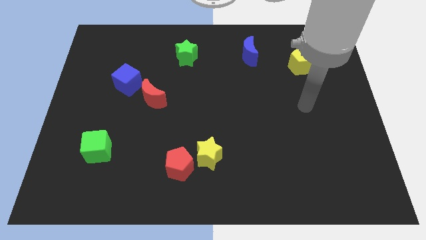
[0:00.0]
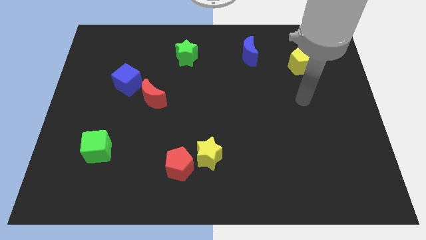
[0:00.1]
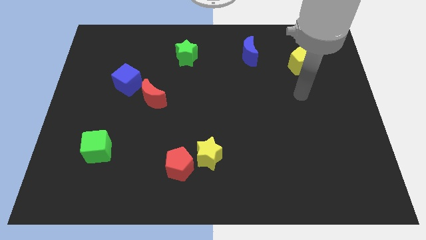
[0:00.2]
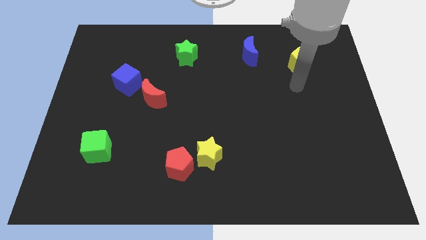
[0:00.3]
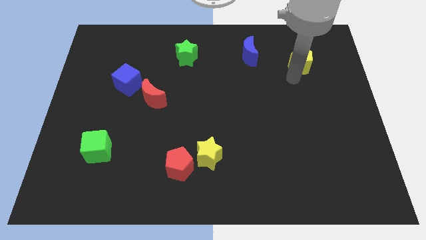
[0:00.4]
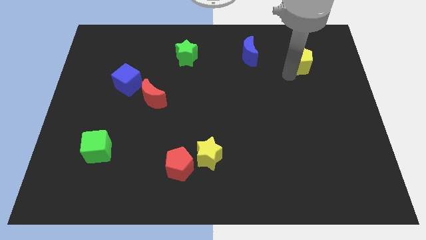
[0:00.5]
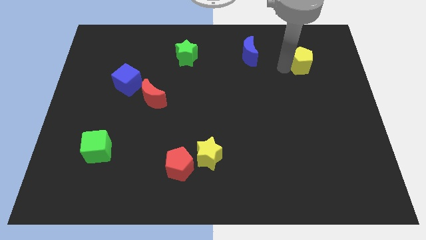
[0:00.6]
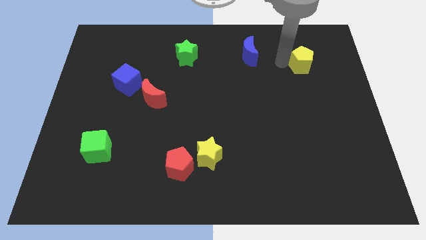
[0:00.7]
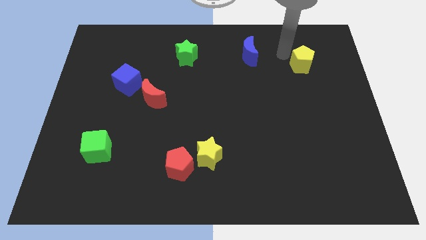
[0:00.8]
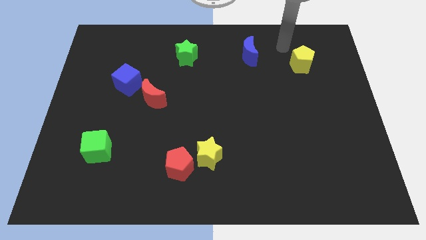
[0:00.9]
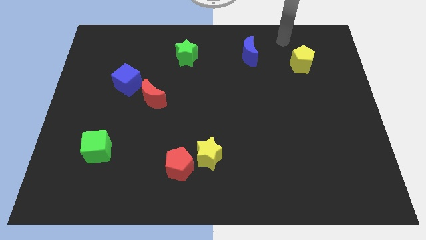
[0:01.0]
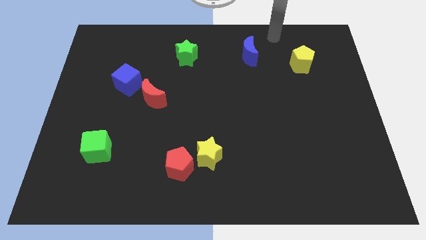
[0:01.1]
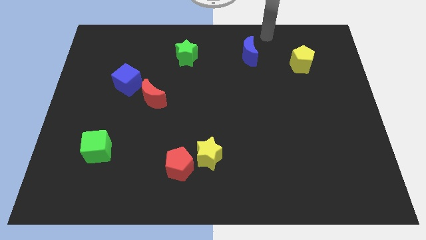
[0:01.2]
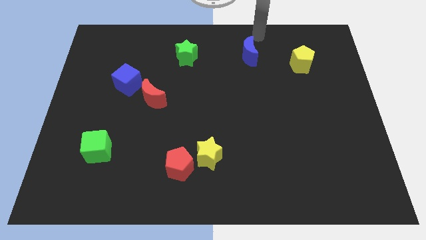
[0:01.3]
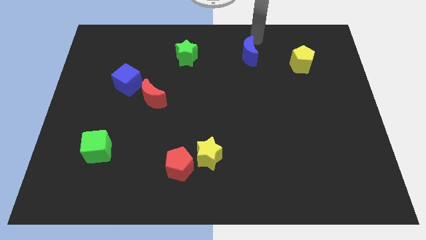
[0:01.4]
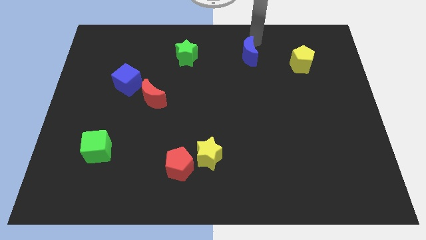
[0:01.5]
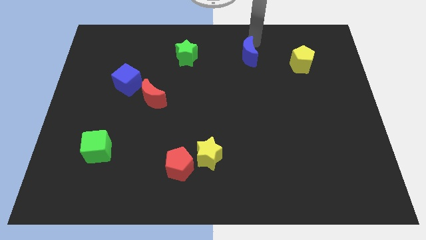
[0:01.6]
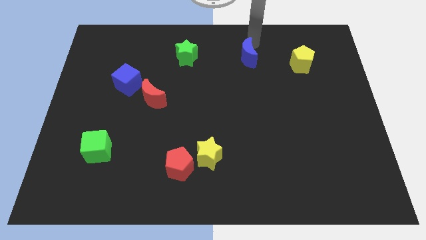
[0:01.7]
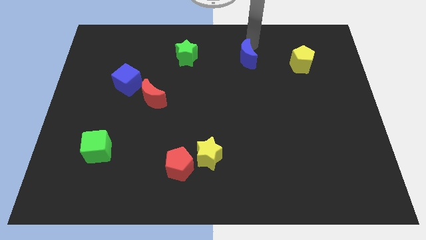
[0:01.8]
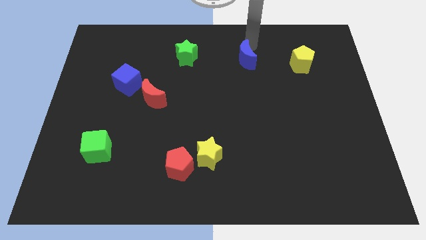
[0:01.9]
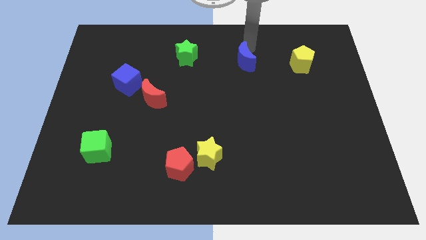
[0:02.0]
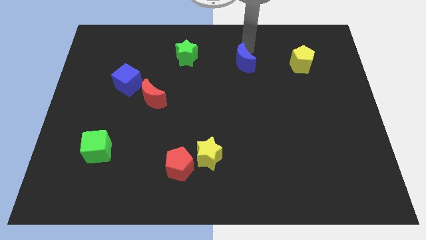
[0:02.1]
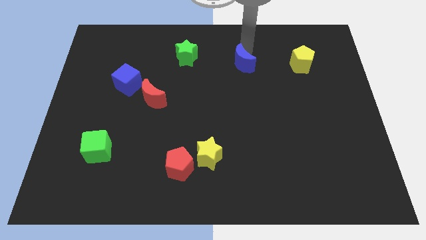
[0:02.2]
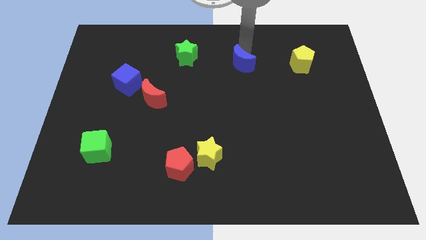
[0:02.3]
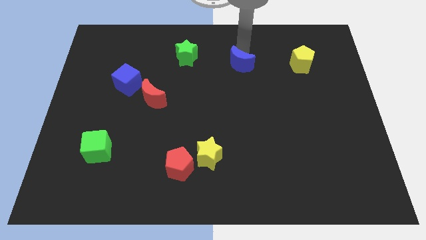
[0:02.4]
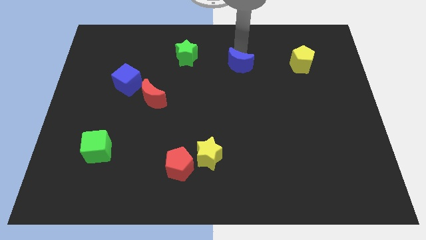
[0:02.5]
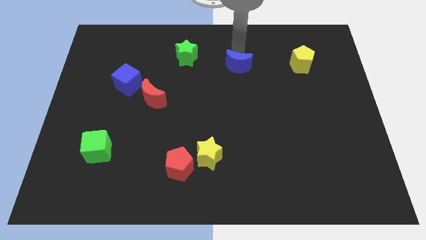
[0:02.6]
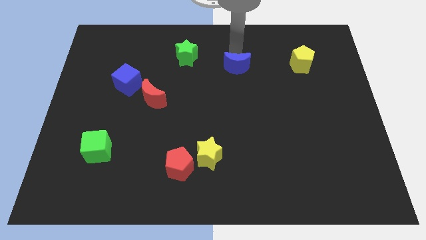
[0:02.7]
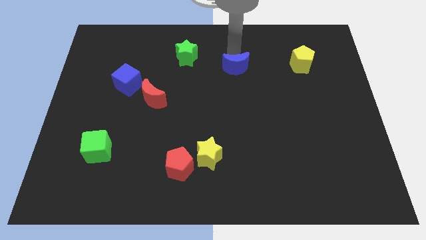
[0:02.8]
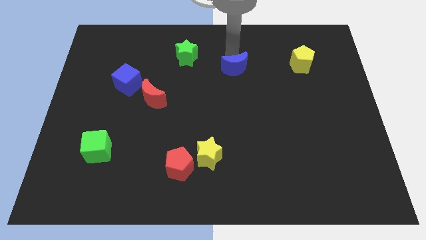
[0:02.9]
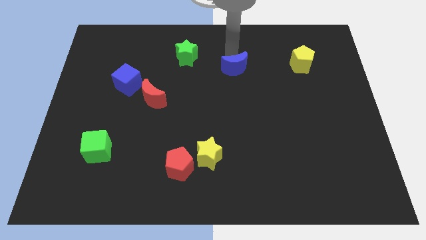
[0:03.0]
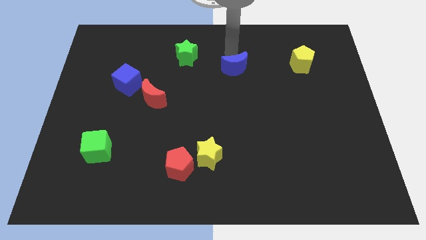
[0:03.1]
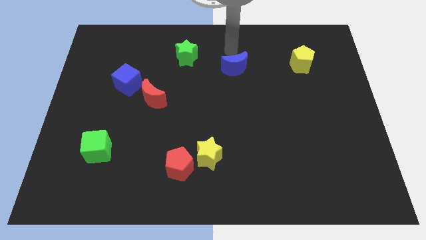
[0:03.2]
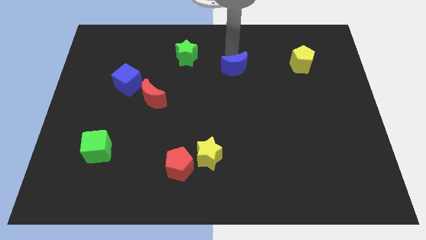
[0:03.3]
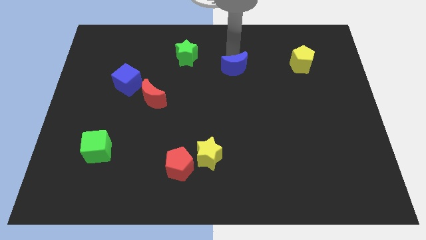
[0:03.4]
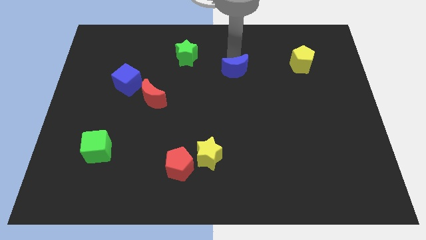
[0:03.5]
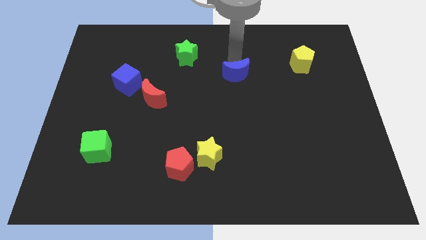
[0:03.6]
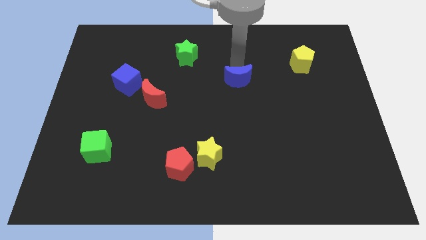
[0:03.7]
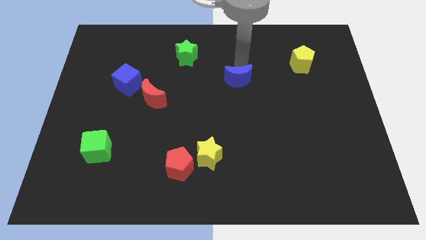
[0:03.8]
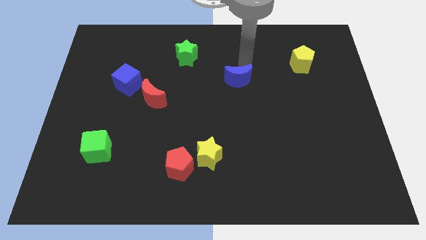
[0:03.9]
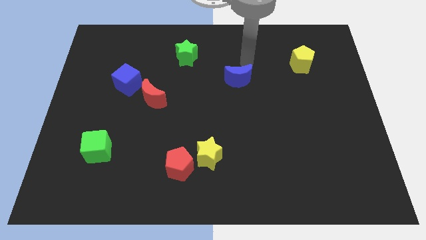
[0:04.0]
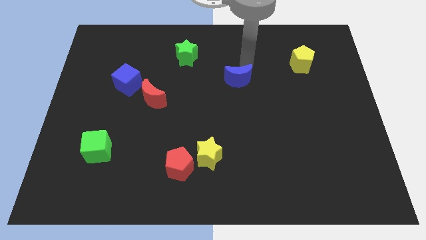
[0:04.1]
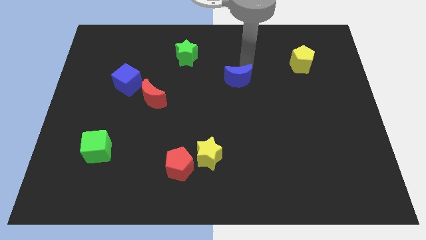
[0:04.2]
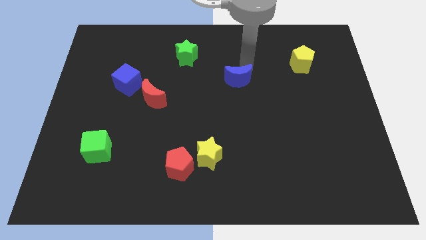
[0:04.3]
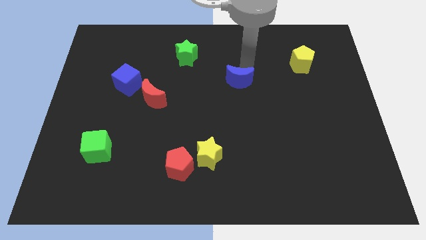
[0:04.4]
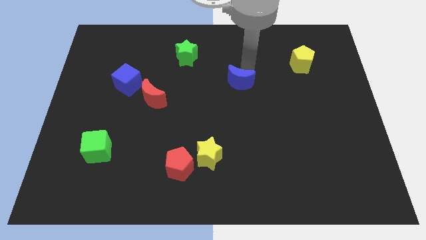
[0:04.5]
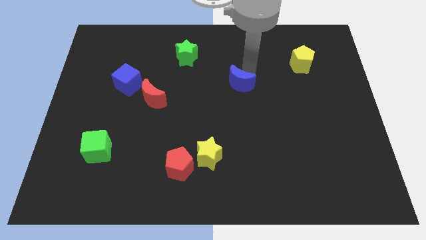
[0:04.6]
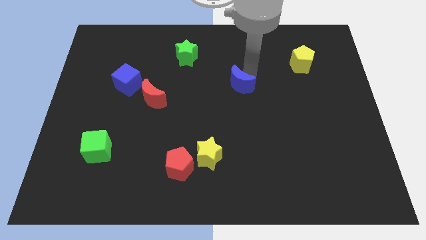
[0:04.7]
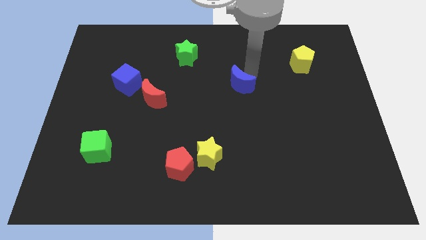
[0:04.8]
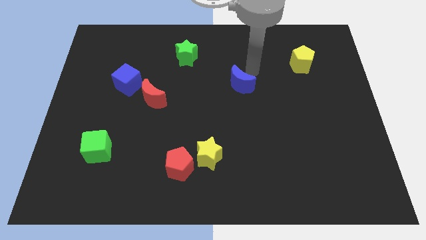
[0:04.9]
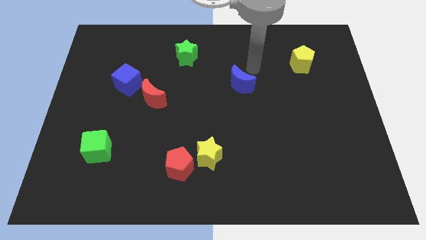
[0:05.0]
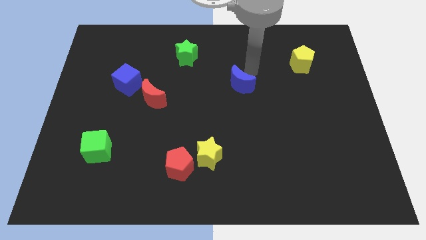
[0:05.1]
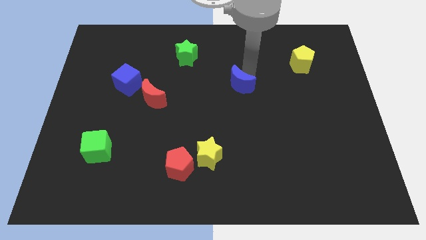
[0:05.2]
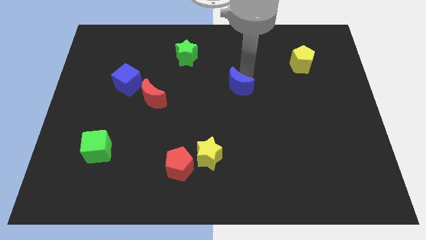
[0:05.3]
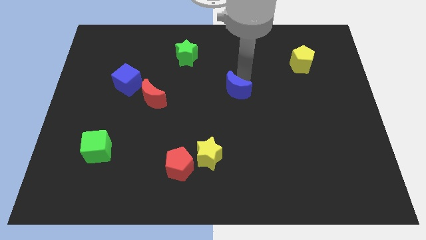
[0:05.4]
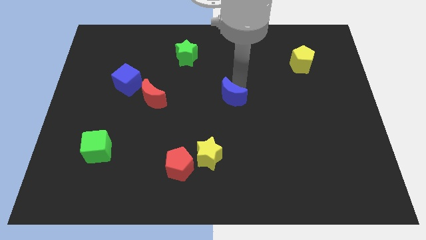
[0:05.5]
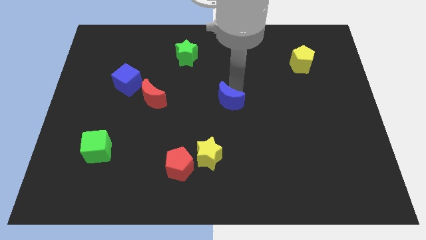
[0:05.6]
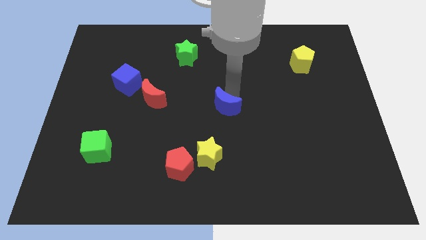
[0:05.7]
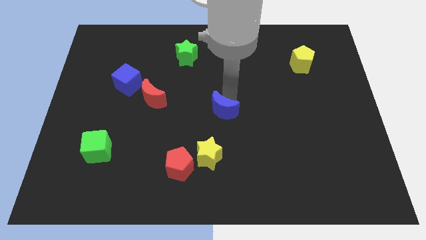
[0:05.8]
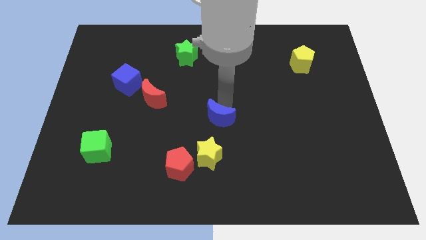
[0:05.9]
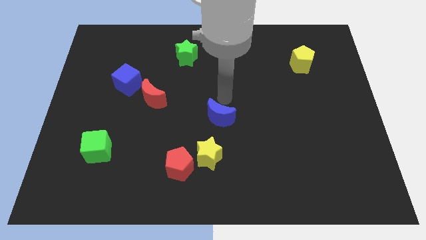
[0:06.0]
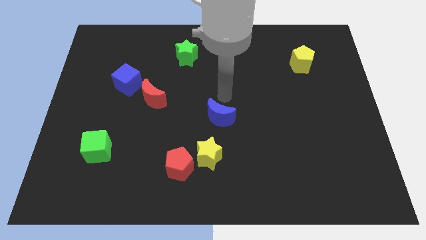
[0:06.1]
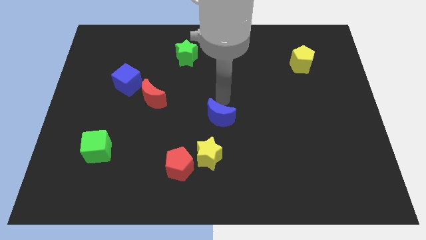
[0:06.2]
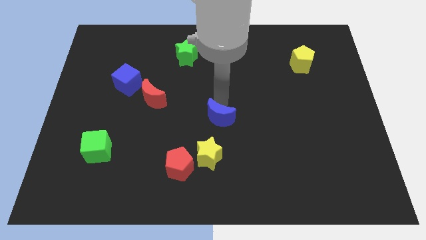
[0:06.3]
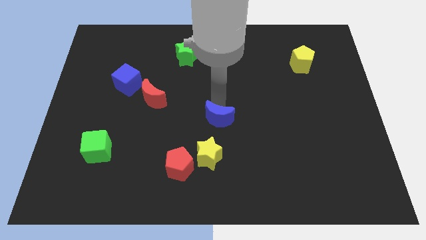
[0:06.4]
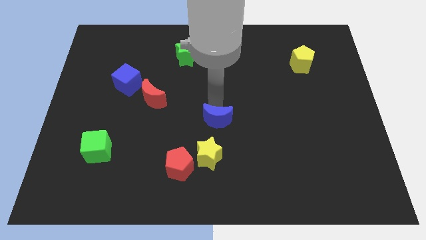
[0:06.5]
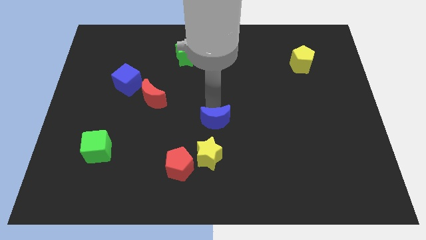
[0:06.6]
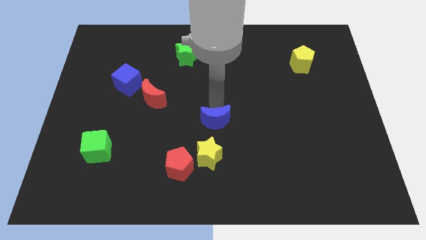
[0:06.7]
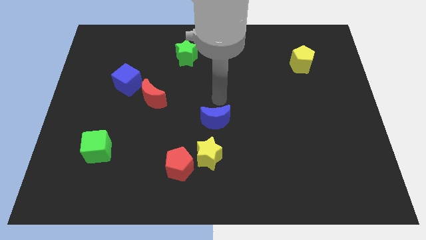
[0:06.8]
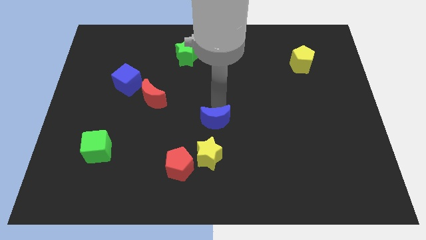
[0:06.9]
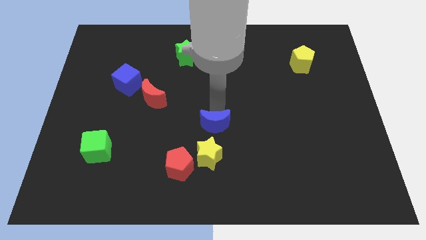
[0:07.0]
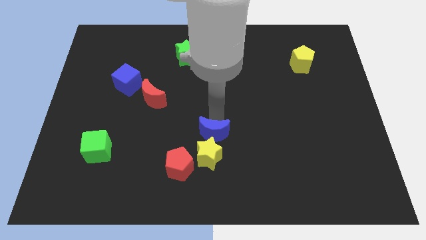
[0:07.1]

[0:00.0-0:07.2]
push the blue moon close to the yellow star
